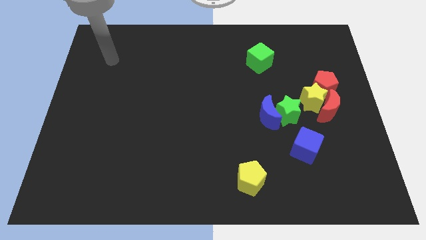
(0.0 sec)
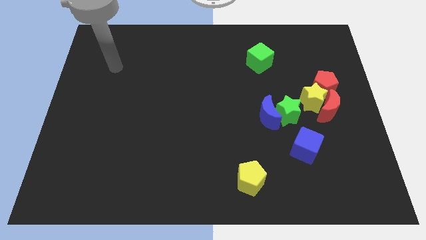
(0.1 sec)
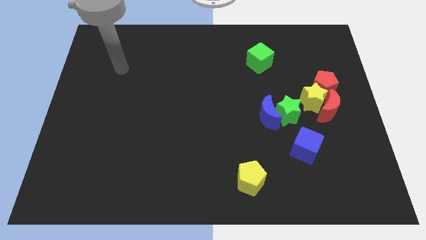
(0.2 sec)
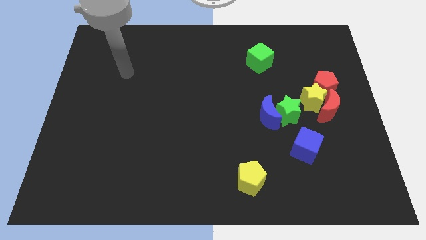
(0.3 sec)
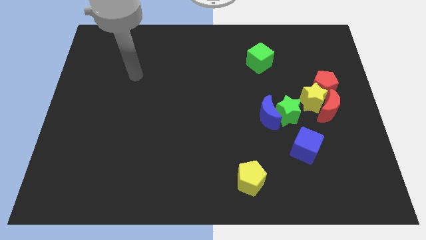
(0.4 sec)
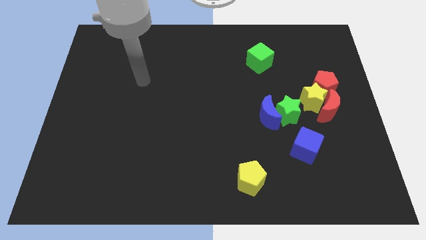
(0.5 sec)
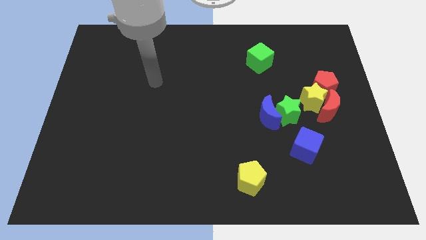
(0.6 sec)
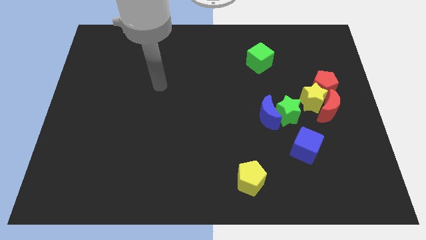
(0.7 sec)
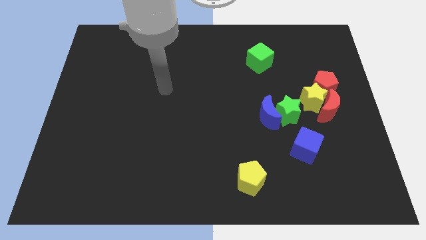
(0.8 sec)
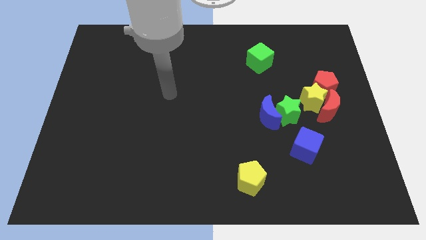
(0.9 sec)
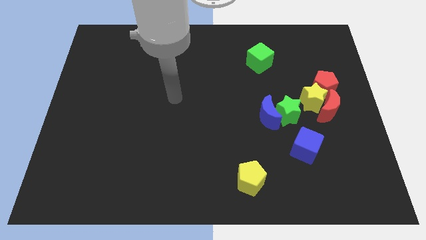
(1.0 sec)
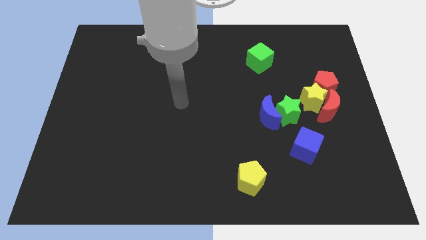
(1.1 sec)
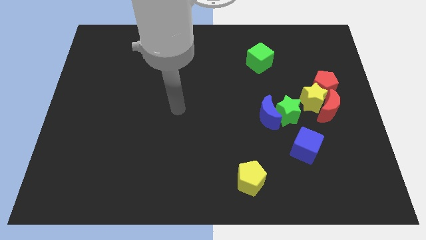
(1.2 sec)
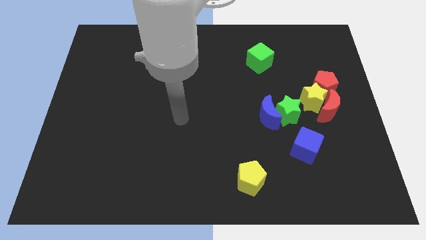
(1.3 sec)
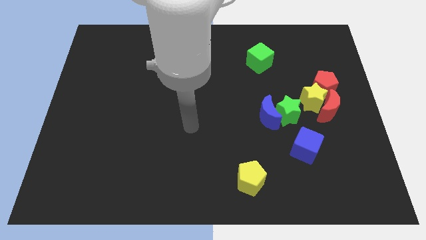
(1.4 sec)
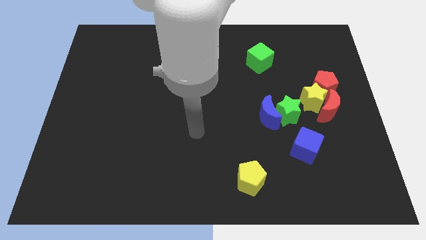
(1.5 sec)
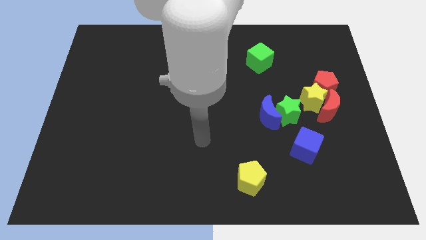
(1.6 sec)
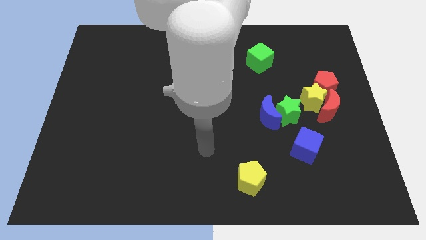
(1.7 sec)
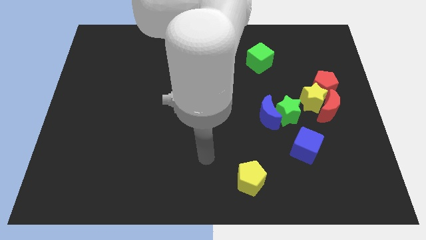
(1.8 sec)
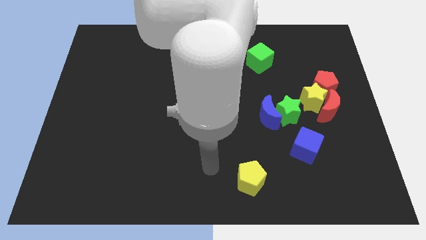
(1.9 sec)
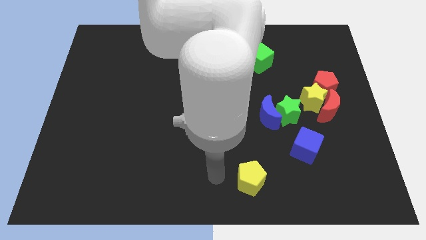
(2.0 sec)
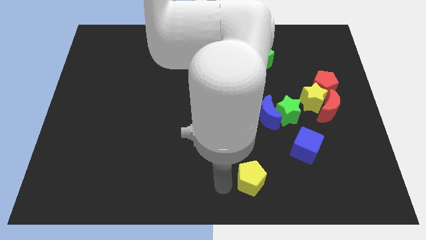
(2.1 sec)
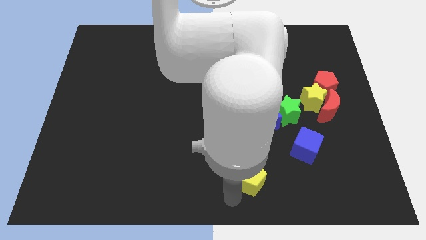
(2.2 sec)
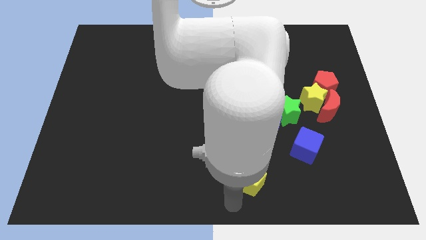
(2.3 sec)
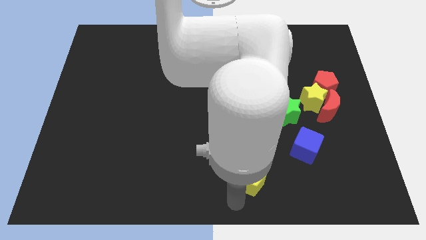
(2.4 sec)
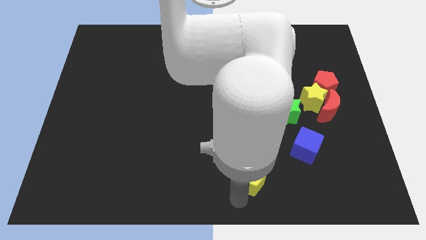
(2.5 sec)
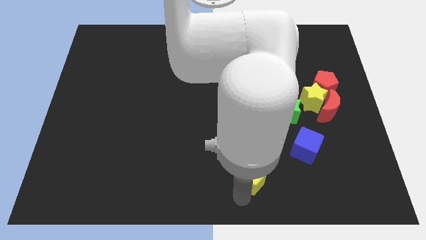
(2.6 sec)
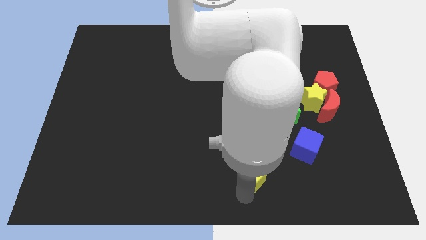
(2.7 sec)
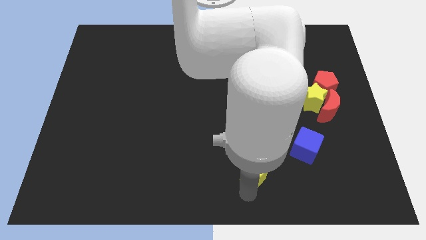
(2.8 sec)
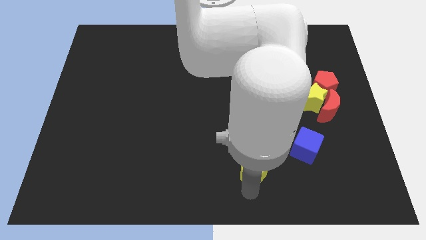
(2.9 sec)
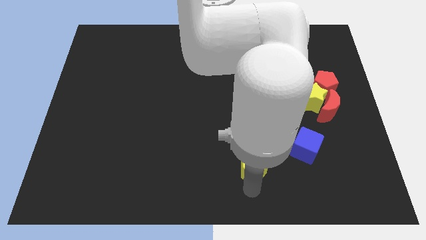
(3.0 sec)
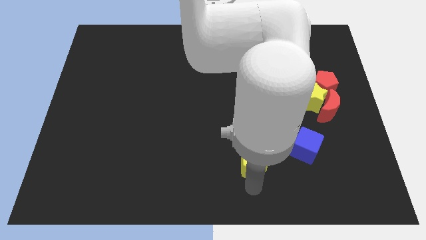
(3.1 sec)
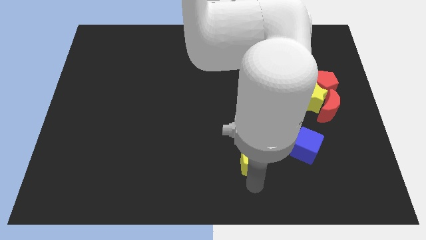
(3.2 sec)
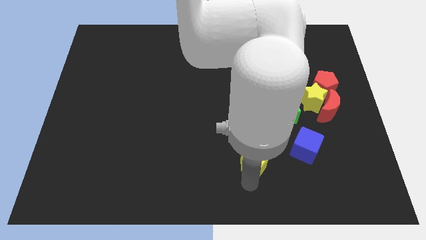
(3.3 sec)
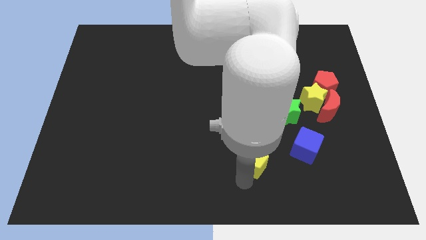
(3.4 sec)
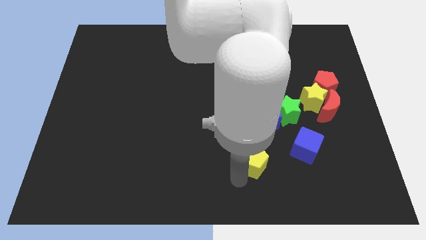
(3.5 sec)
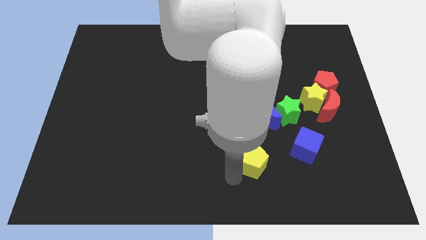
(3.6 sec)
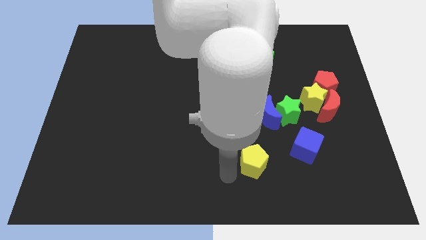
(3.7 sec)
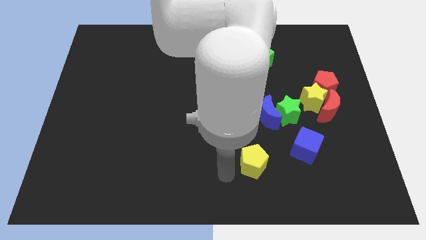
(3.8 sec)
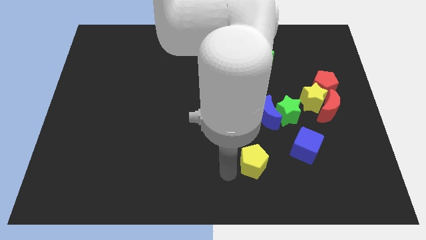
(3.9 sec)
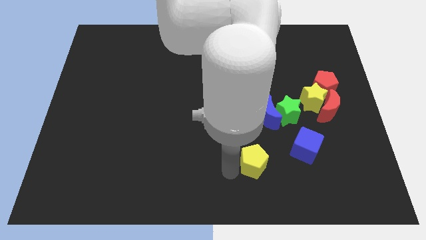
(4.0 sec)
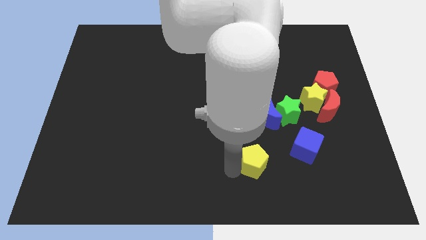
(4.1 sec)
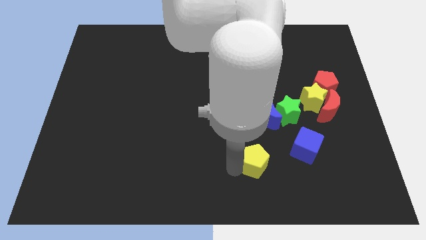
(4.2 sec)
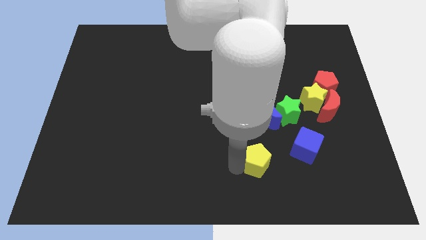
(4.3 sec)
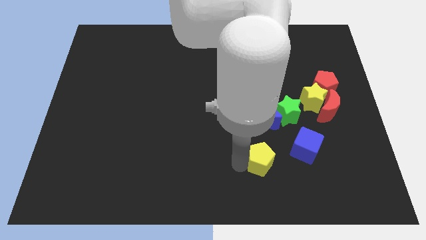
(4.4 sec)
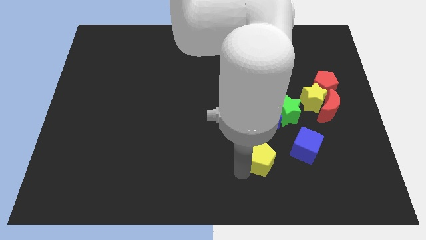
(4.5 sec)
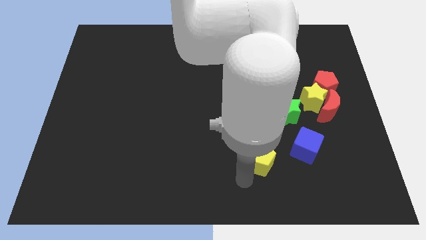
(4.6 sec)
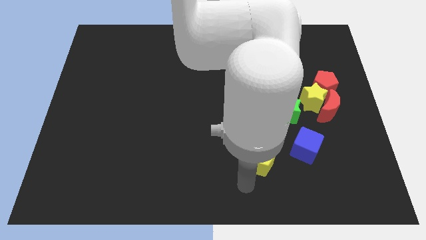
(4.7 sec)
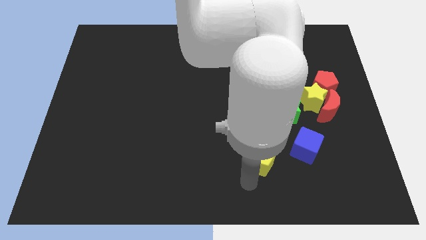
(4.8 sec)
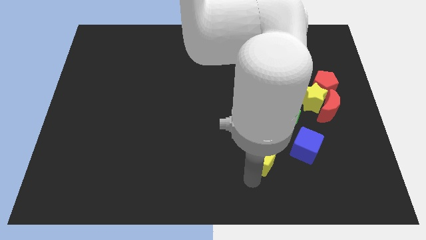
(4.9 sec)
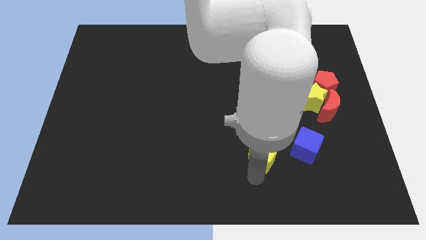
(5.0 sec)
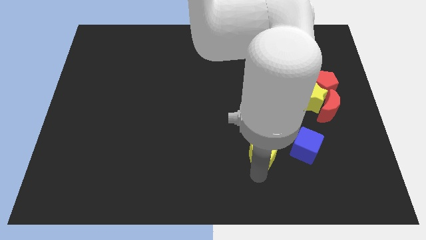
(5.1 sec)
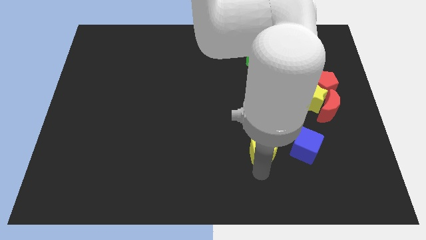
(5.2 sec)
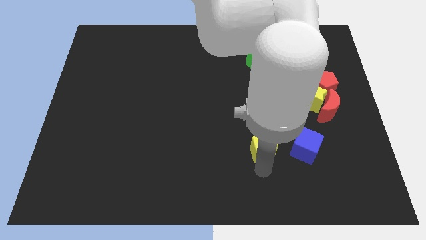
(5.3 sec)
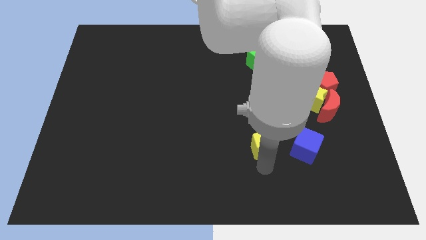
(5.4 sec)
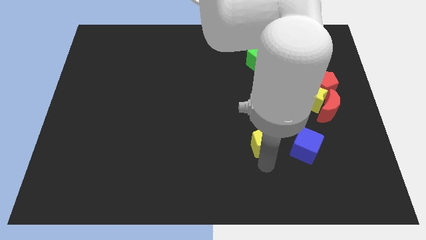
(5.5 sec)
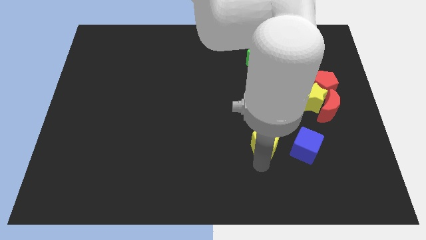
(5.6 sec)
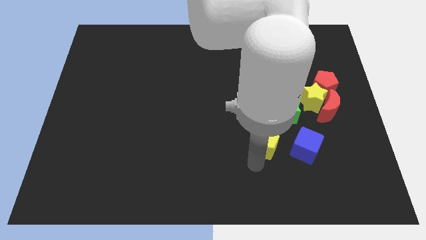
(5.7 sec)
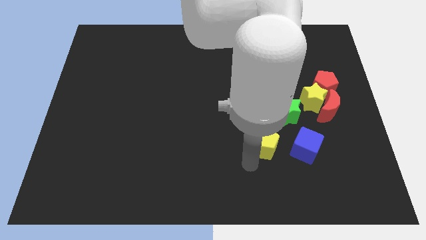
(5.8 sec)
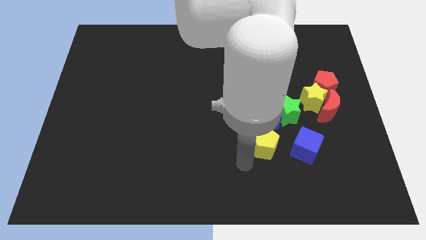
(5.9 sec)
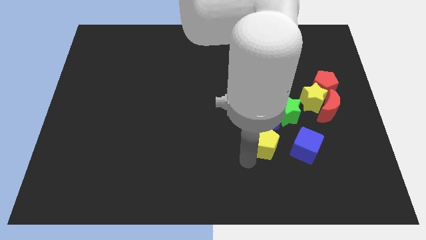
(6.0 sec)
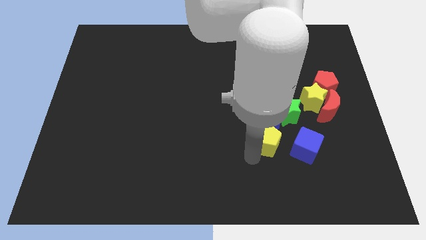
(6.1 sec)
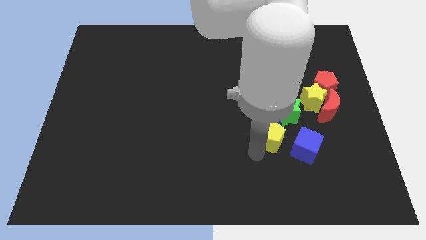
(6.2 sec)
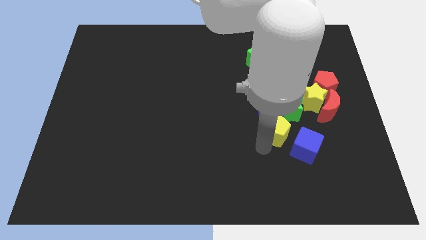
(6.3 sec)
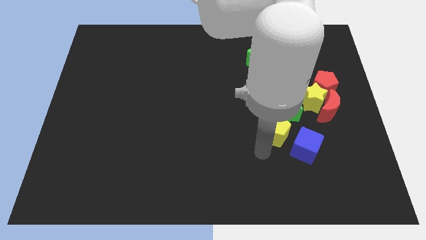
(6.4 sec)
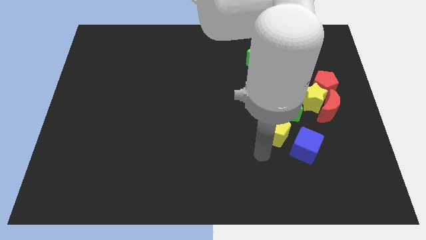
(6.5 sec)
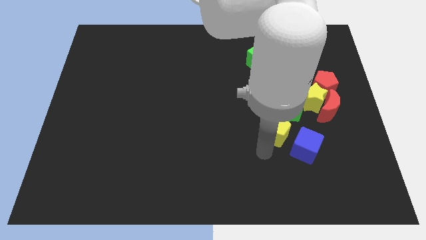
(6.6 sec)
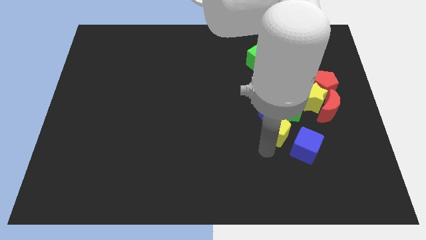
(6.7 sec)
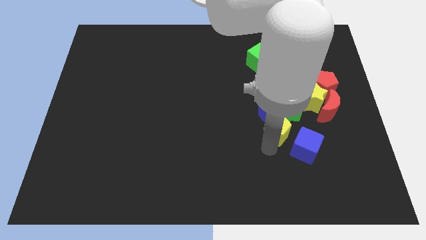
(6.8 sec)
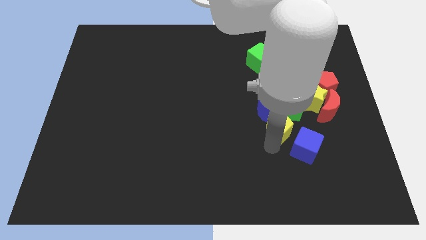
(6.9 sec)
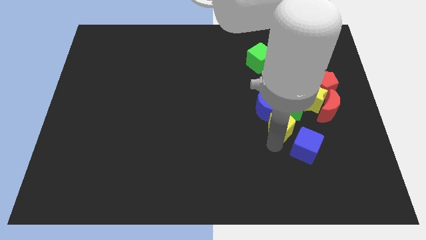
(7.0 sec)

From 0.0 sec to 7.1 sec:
push the yellow pentagon to the green star
